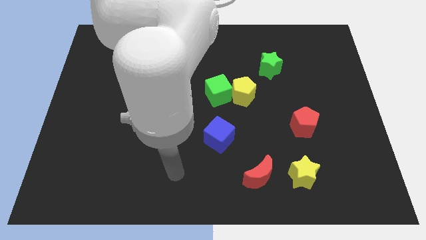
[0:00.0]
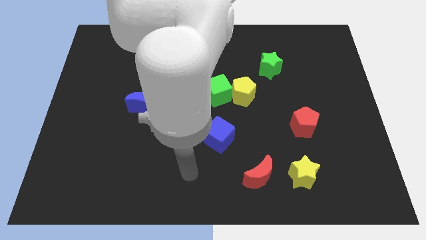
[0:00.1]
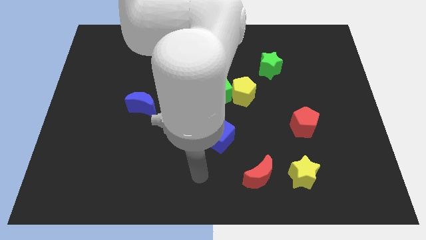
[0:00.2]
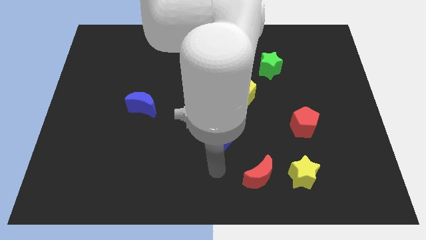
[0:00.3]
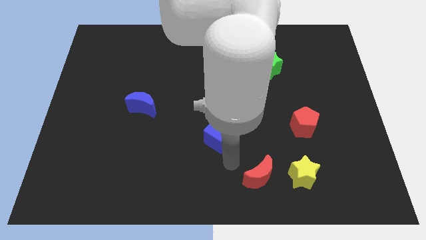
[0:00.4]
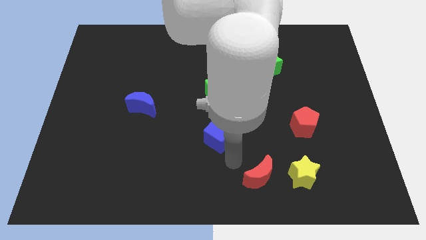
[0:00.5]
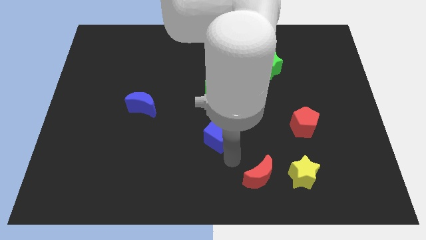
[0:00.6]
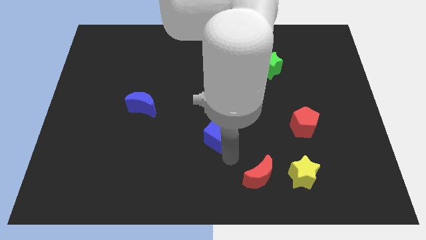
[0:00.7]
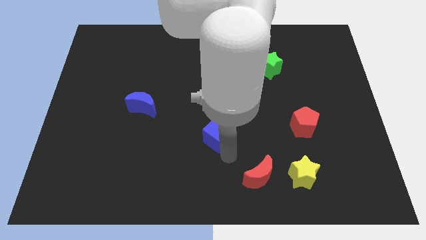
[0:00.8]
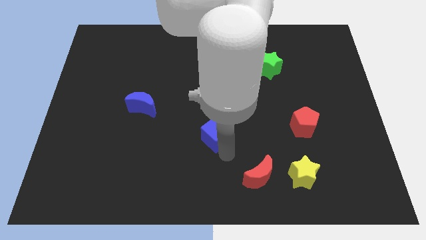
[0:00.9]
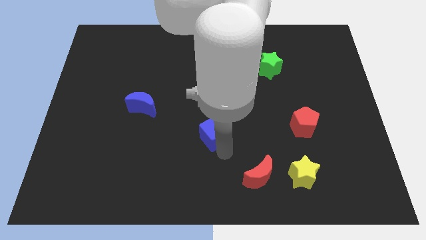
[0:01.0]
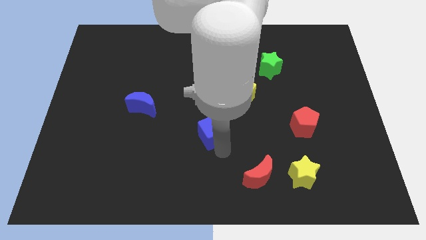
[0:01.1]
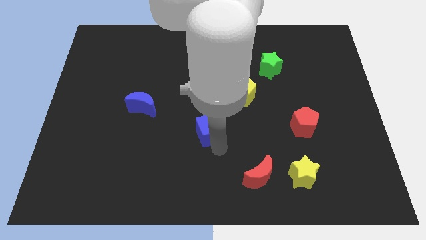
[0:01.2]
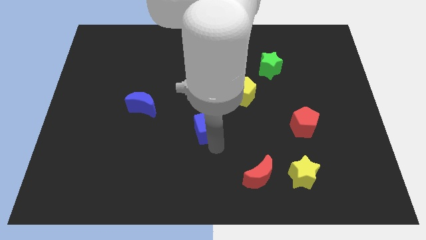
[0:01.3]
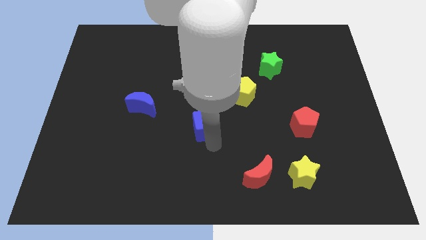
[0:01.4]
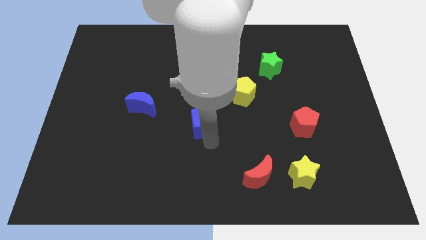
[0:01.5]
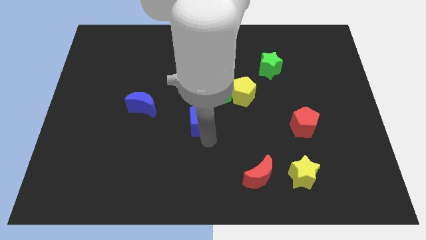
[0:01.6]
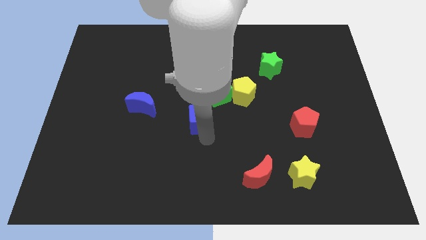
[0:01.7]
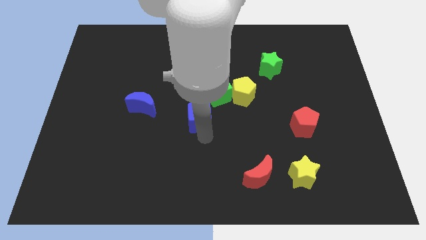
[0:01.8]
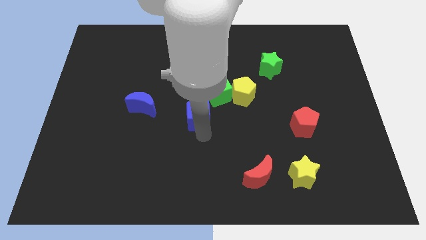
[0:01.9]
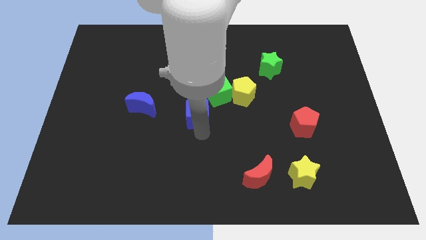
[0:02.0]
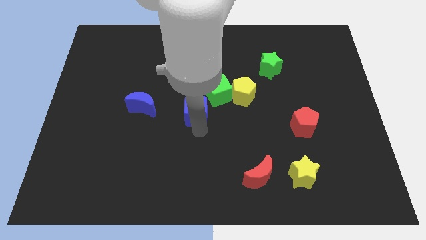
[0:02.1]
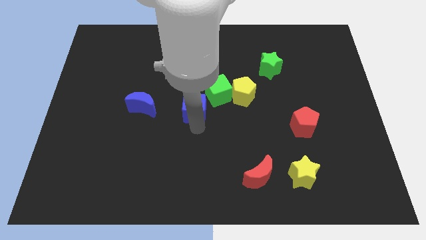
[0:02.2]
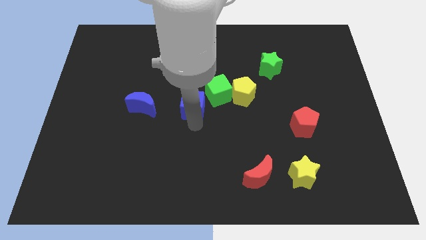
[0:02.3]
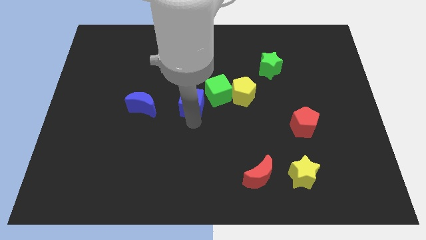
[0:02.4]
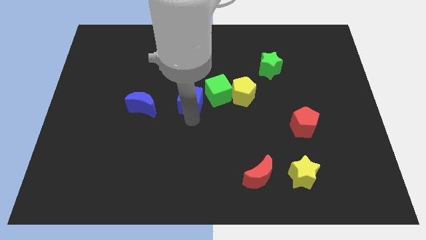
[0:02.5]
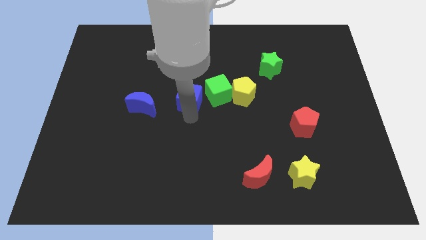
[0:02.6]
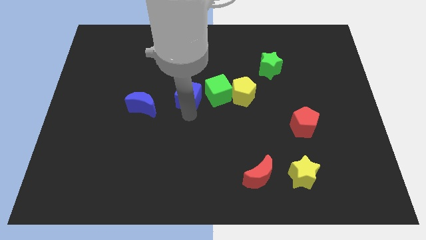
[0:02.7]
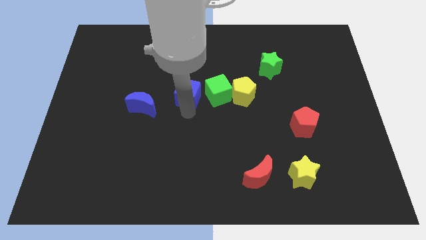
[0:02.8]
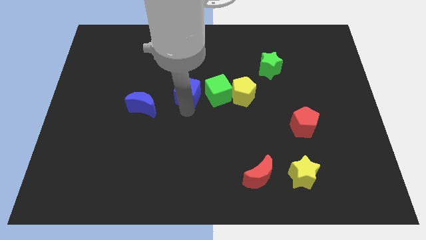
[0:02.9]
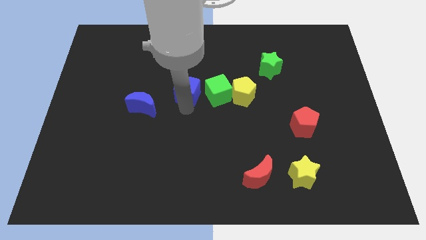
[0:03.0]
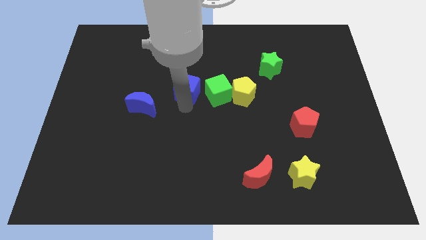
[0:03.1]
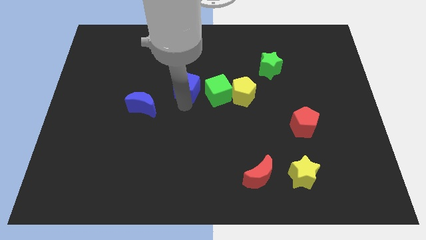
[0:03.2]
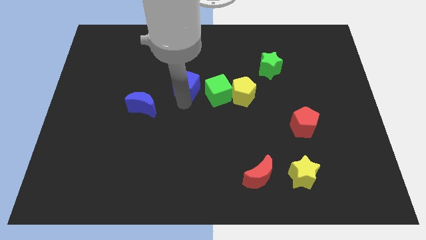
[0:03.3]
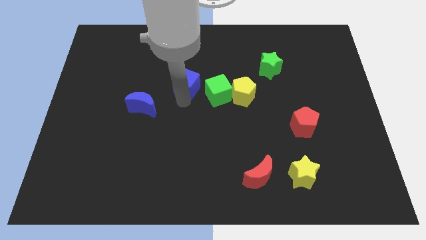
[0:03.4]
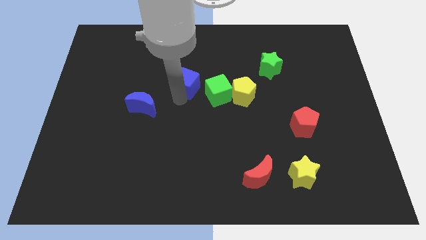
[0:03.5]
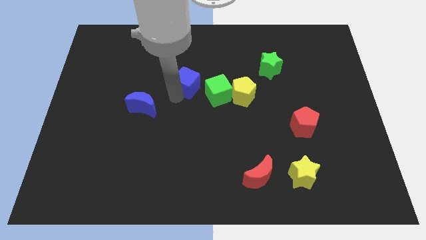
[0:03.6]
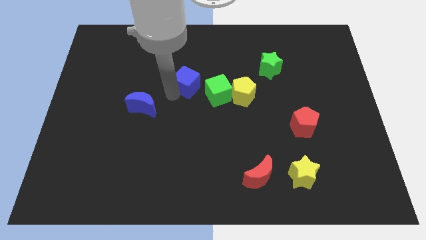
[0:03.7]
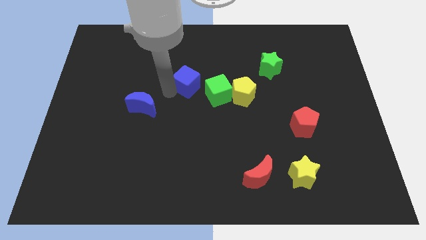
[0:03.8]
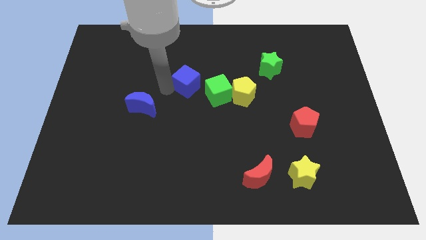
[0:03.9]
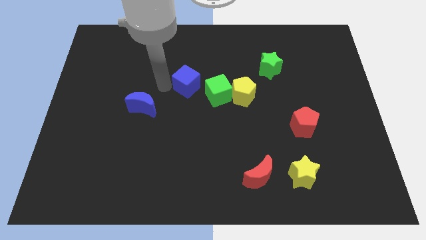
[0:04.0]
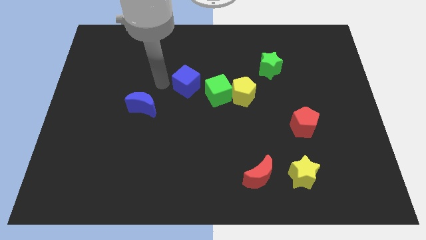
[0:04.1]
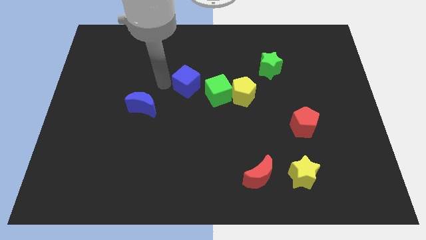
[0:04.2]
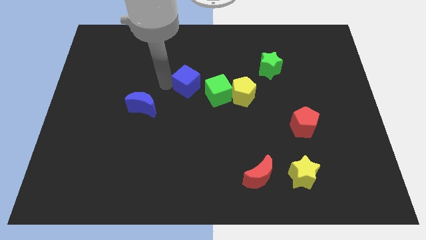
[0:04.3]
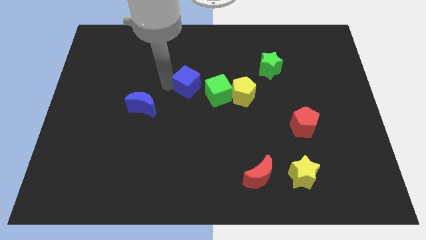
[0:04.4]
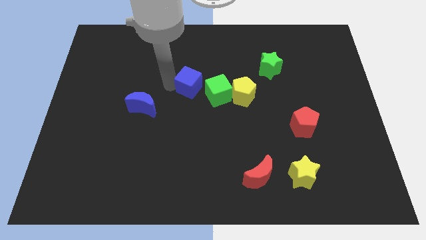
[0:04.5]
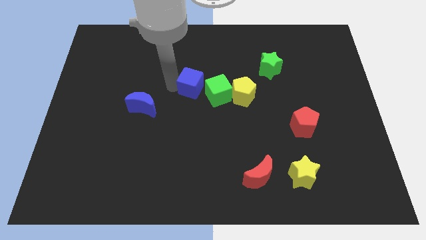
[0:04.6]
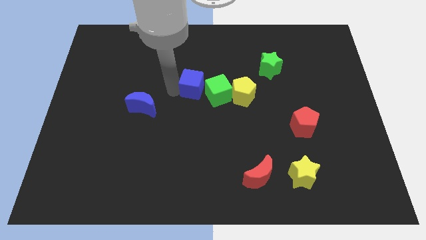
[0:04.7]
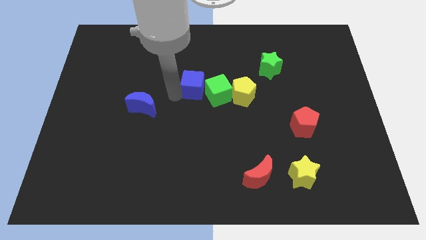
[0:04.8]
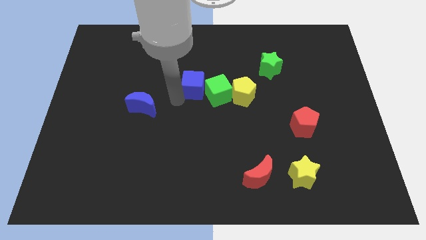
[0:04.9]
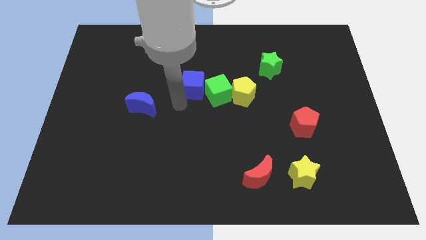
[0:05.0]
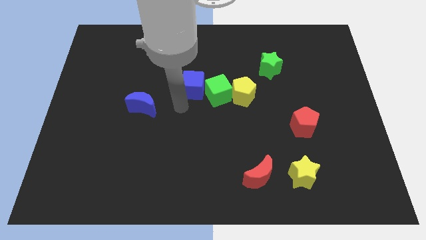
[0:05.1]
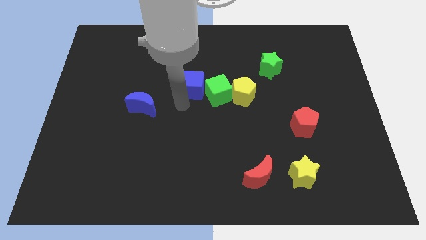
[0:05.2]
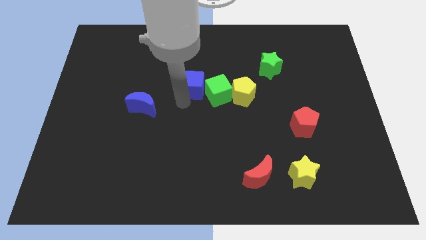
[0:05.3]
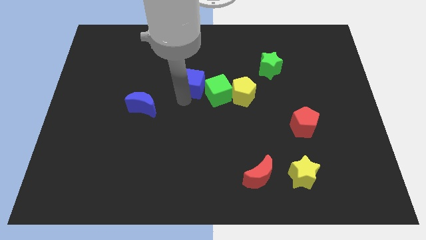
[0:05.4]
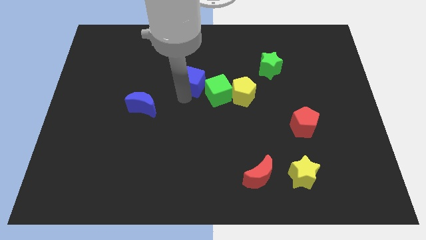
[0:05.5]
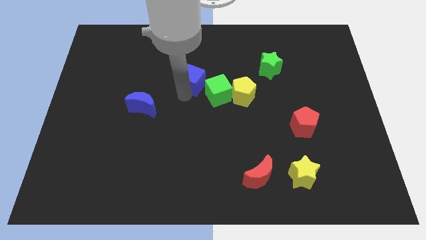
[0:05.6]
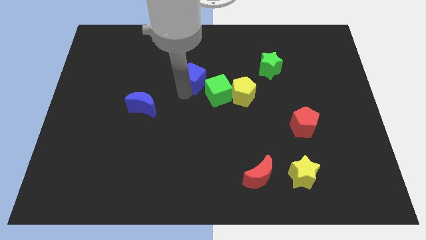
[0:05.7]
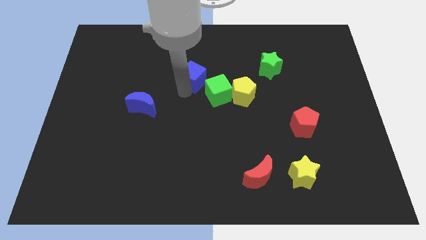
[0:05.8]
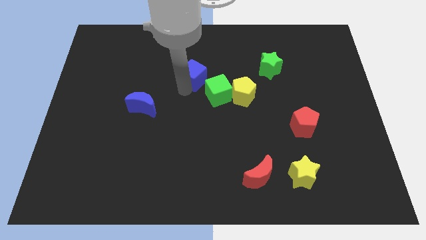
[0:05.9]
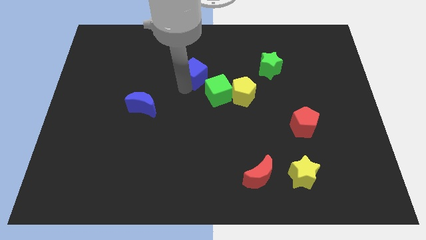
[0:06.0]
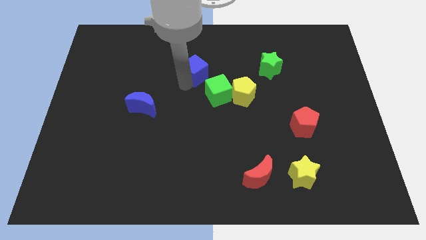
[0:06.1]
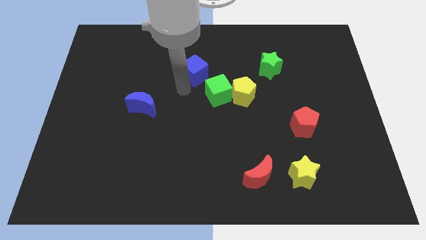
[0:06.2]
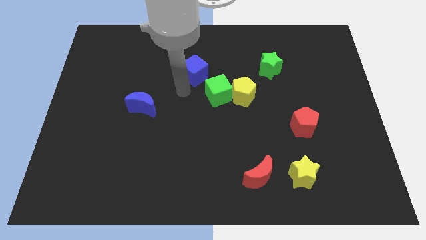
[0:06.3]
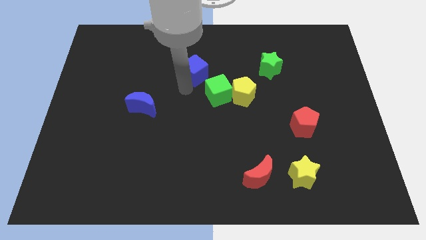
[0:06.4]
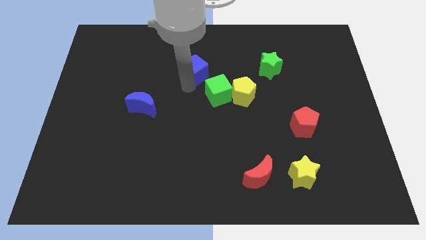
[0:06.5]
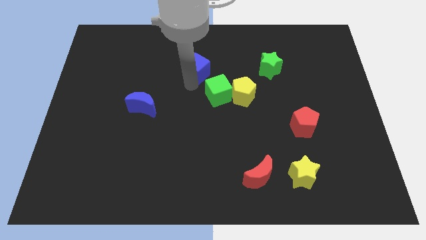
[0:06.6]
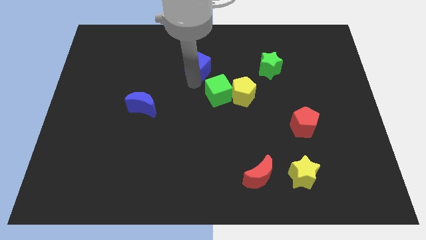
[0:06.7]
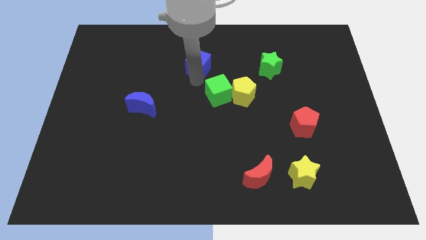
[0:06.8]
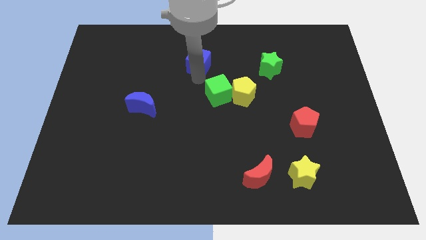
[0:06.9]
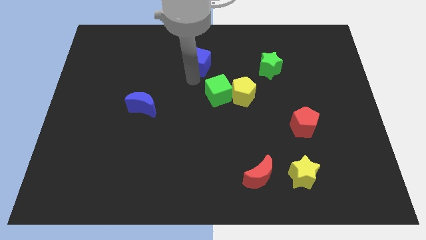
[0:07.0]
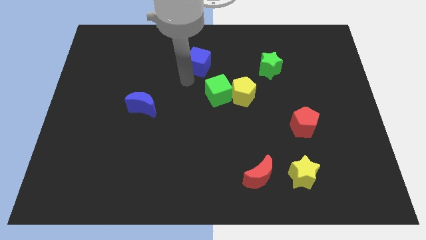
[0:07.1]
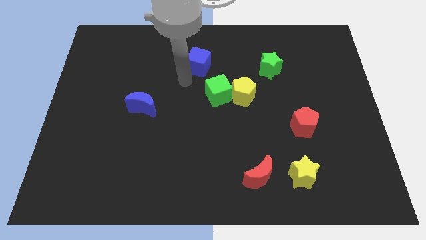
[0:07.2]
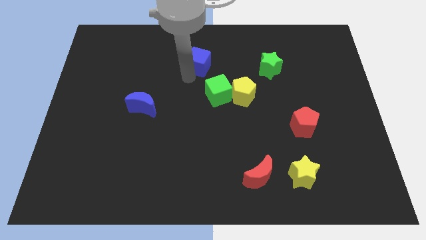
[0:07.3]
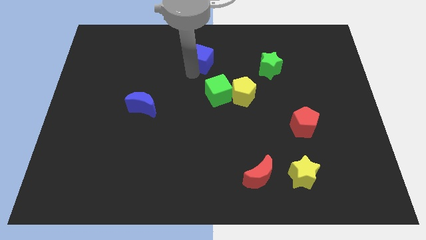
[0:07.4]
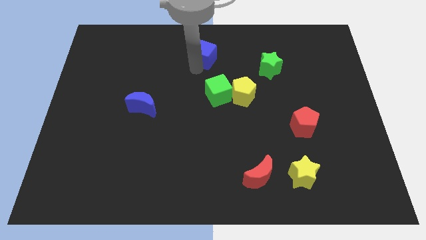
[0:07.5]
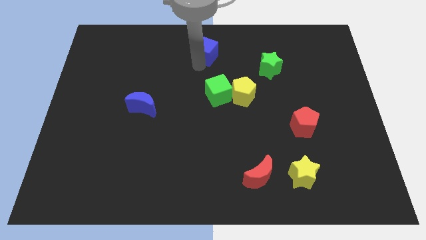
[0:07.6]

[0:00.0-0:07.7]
put the blue cube to the top side

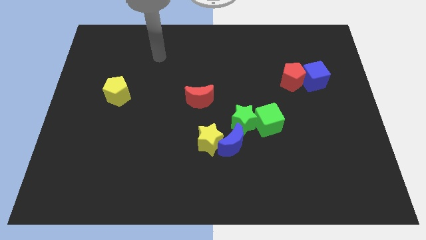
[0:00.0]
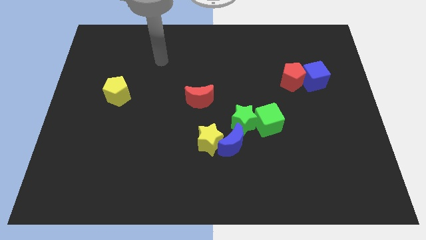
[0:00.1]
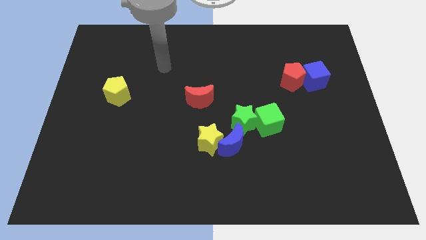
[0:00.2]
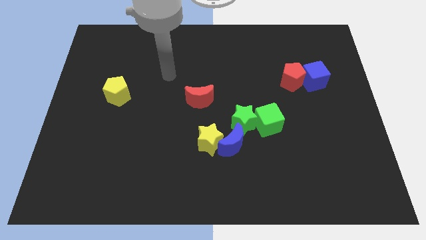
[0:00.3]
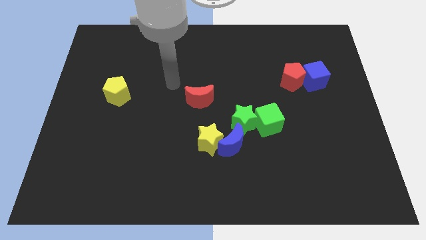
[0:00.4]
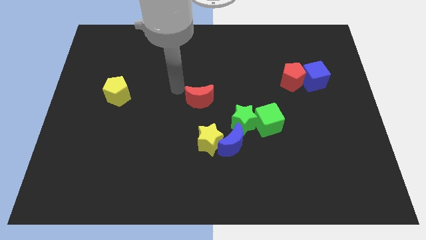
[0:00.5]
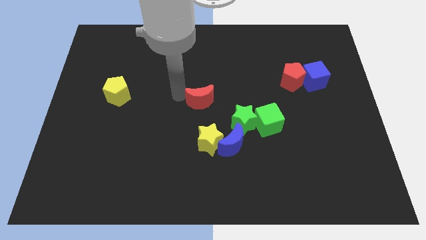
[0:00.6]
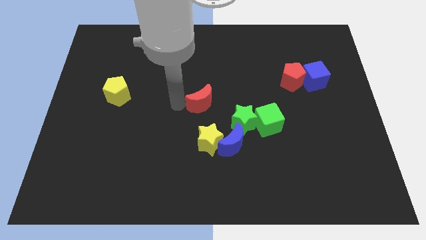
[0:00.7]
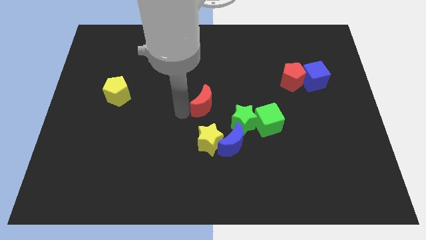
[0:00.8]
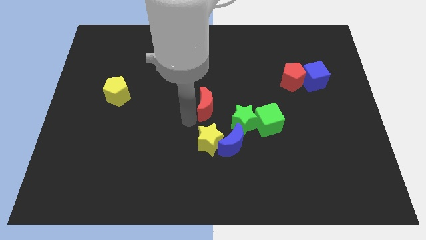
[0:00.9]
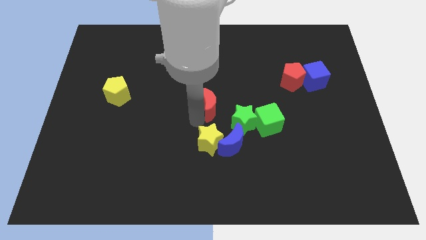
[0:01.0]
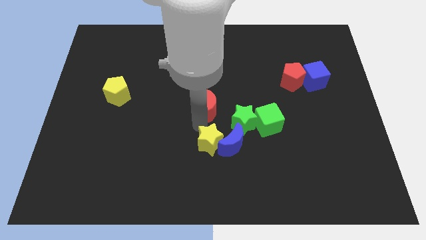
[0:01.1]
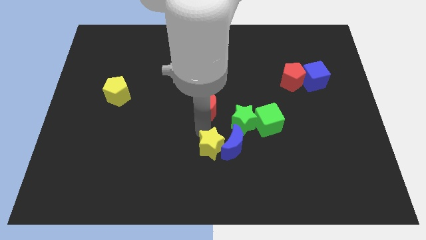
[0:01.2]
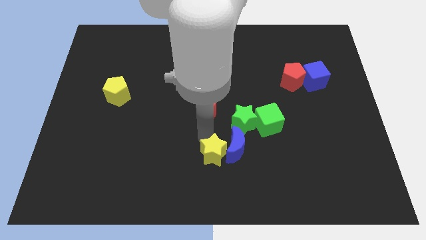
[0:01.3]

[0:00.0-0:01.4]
put the yellow star to the bottom
